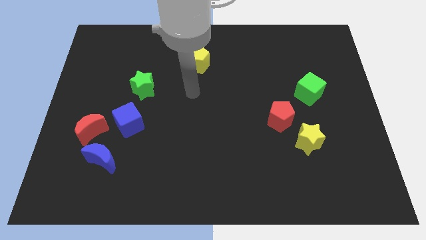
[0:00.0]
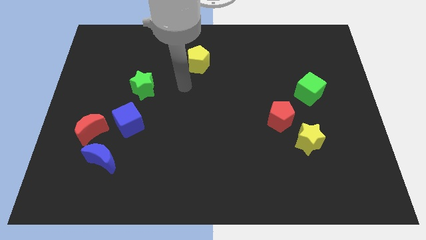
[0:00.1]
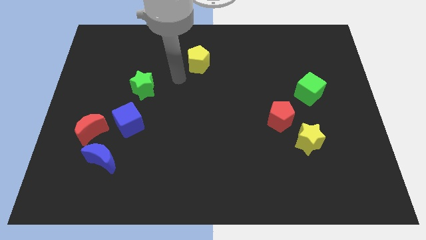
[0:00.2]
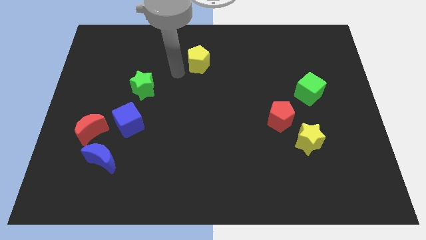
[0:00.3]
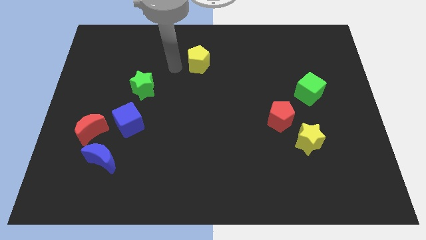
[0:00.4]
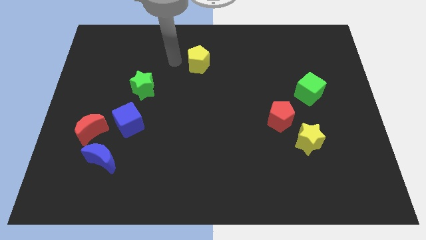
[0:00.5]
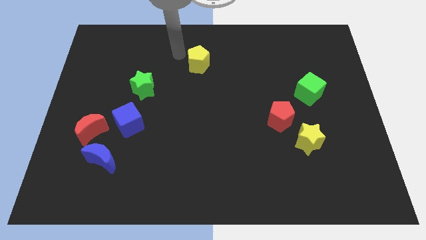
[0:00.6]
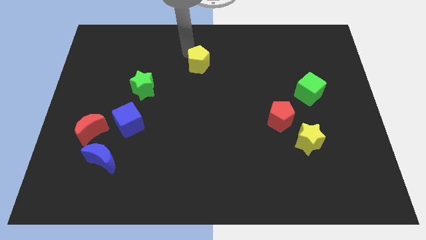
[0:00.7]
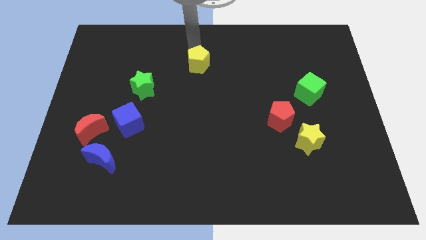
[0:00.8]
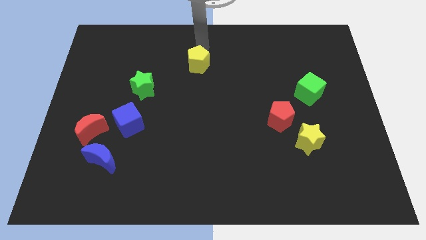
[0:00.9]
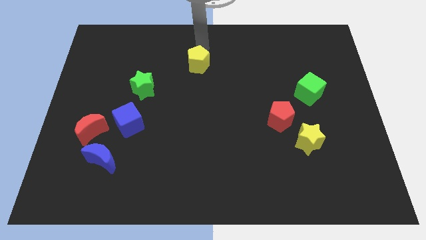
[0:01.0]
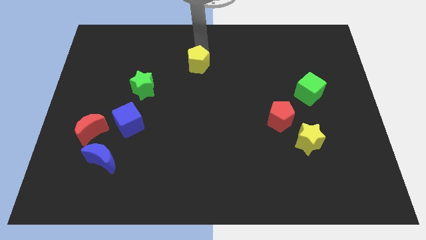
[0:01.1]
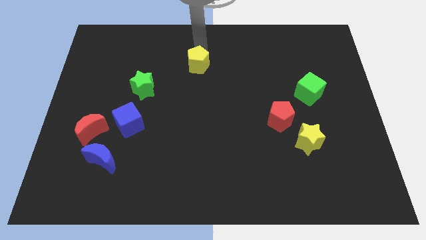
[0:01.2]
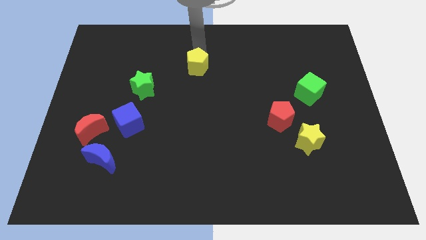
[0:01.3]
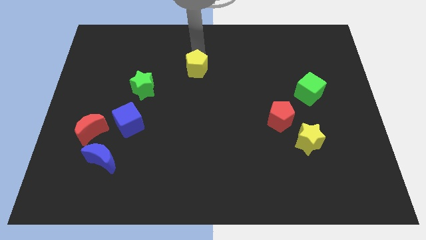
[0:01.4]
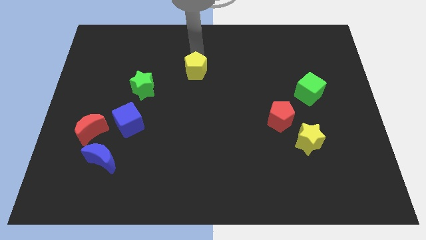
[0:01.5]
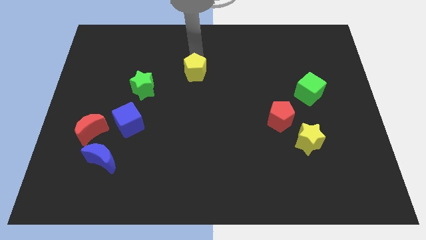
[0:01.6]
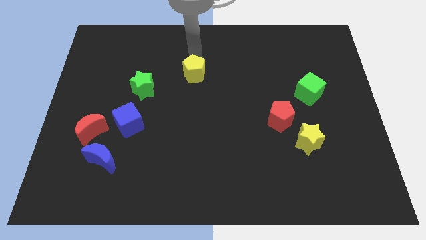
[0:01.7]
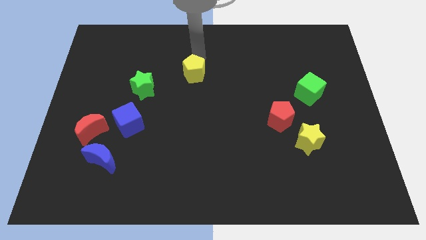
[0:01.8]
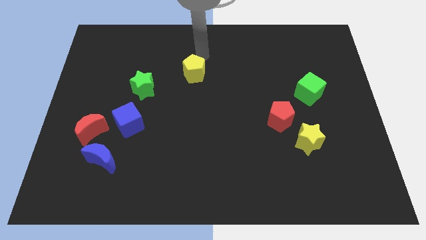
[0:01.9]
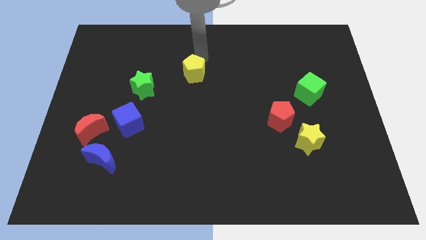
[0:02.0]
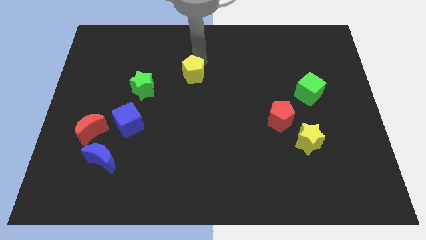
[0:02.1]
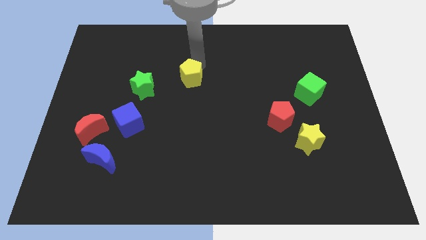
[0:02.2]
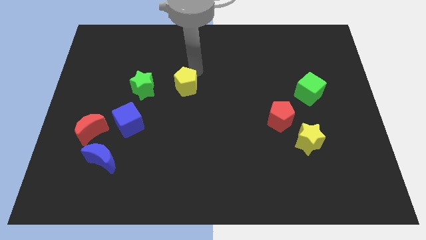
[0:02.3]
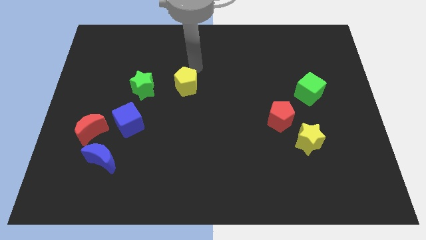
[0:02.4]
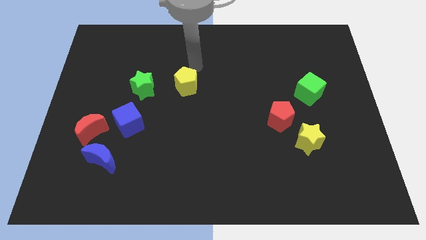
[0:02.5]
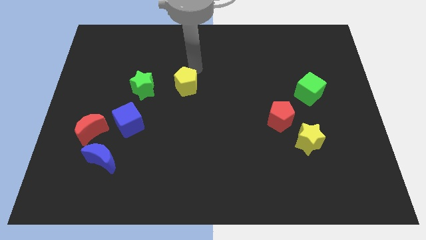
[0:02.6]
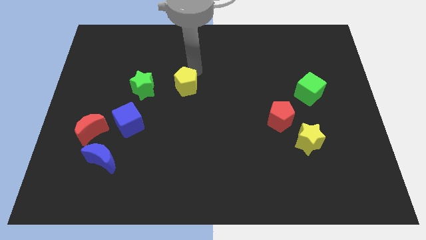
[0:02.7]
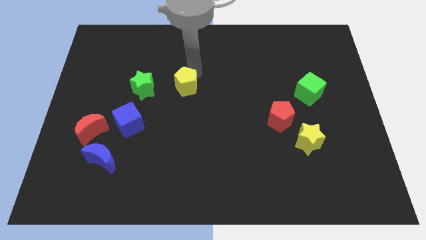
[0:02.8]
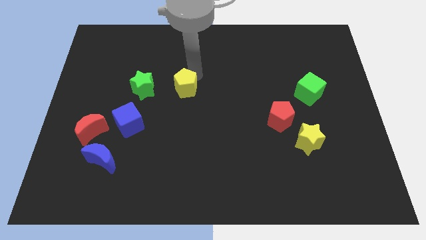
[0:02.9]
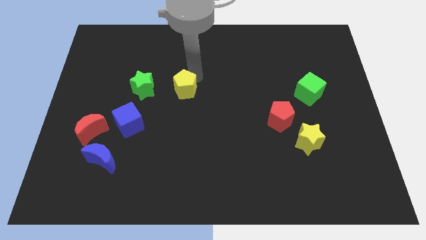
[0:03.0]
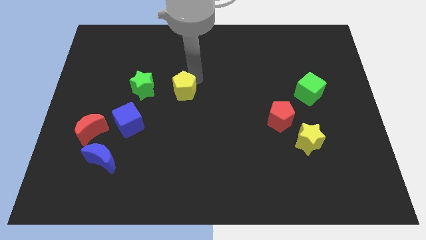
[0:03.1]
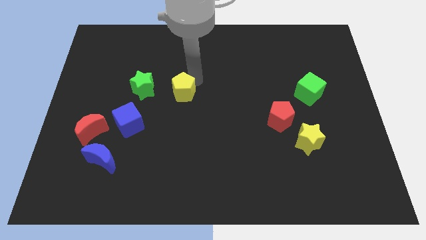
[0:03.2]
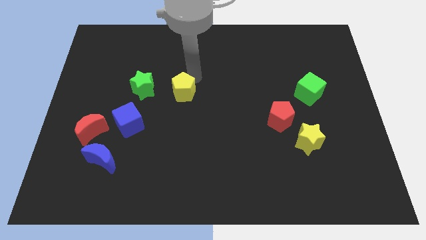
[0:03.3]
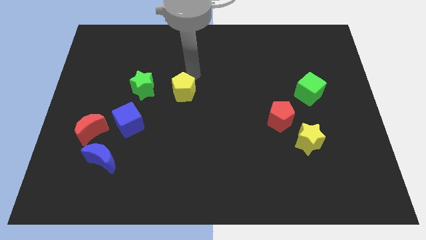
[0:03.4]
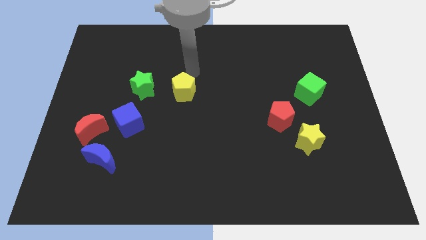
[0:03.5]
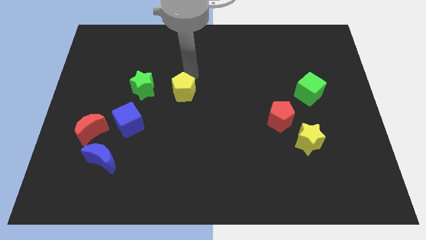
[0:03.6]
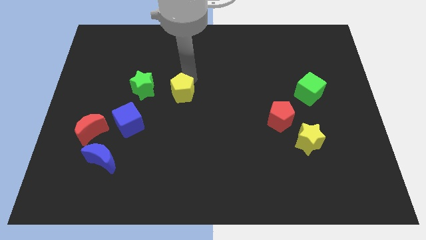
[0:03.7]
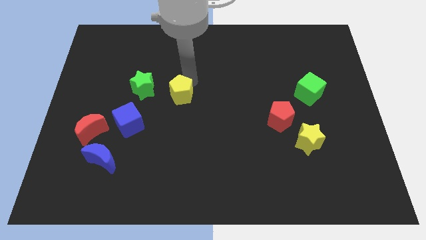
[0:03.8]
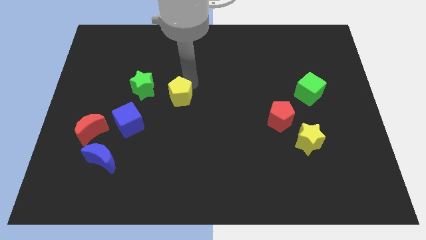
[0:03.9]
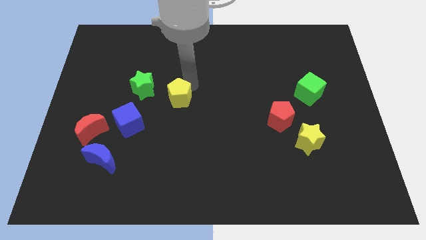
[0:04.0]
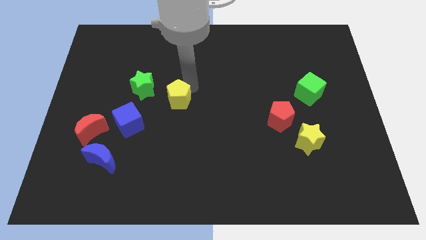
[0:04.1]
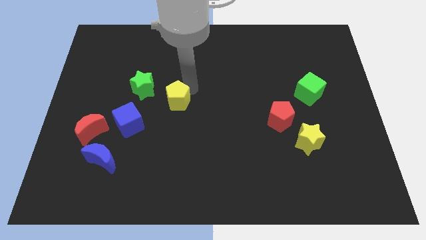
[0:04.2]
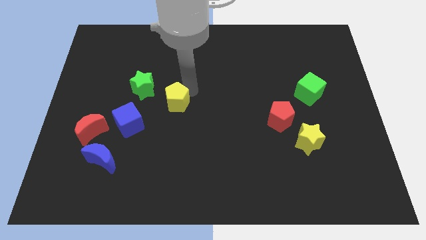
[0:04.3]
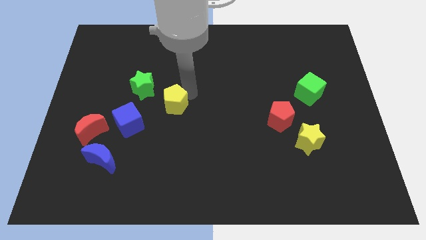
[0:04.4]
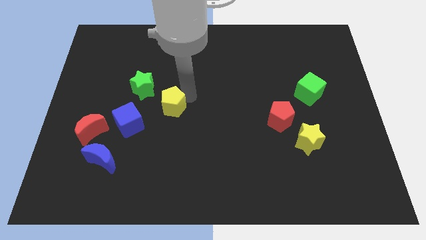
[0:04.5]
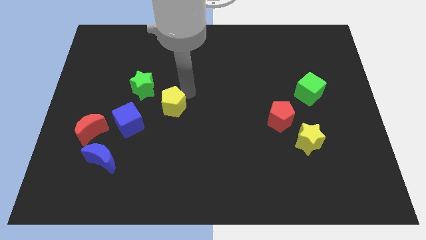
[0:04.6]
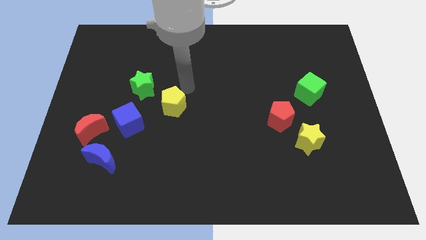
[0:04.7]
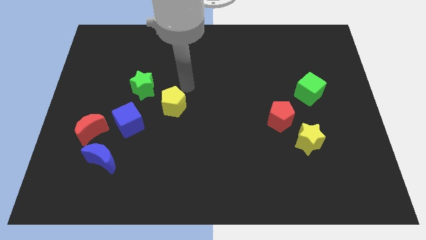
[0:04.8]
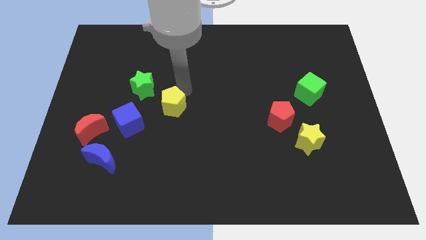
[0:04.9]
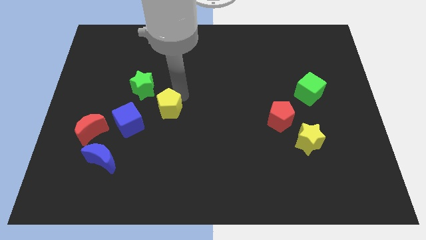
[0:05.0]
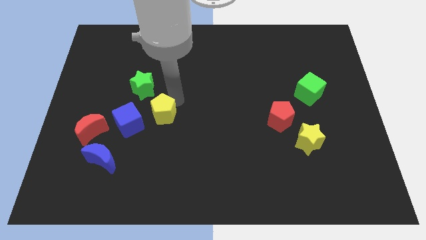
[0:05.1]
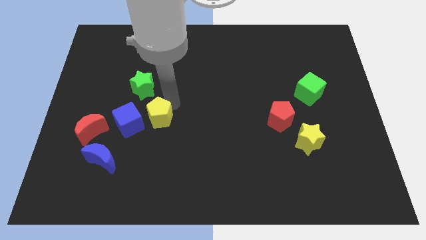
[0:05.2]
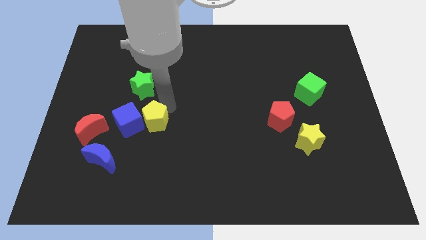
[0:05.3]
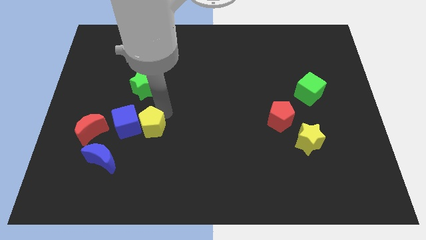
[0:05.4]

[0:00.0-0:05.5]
push the yellow pentagon to the top right of the blue moon

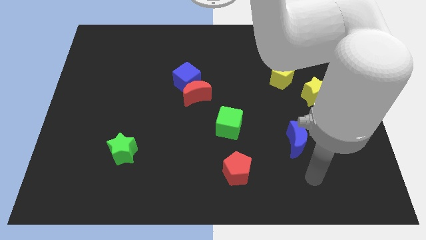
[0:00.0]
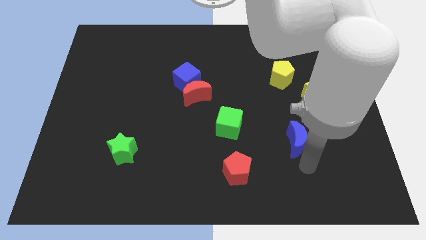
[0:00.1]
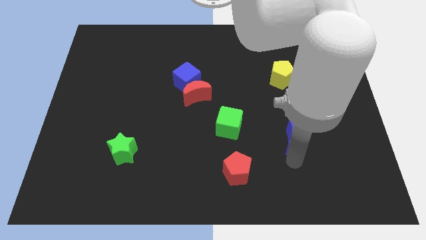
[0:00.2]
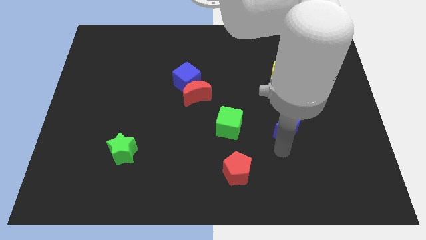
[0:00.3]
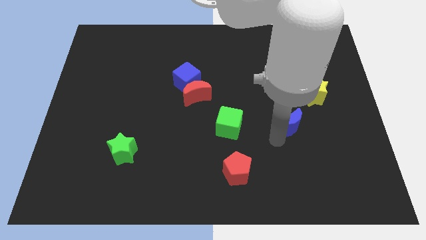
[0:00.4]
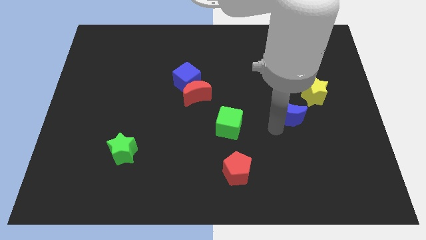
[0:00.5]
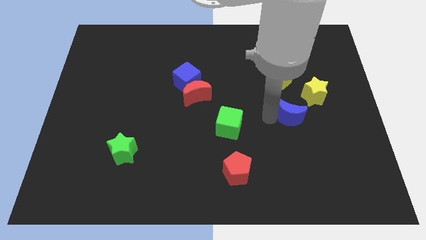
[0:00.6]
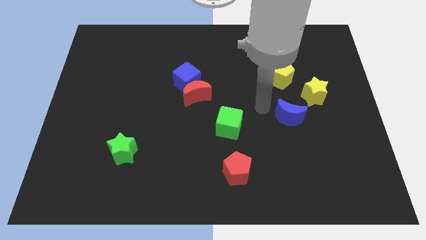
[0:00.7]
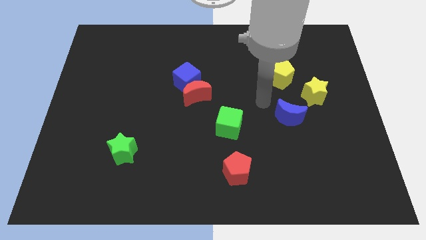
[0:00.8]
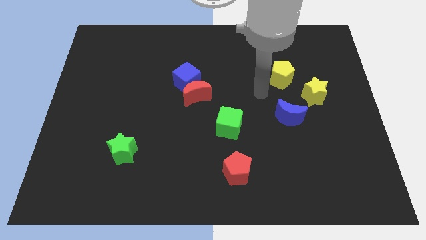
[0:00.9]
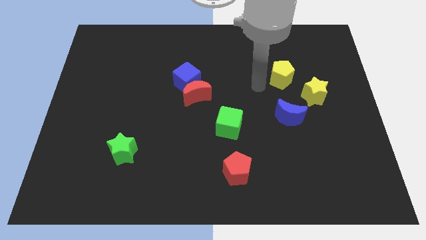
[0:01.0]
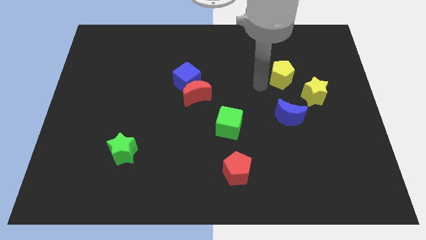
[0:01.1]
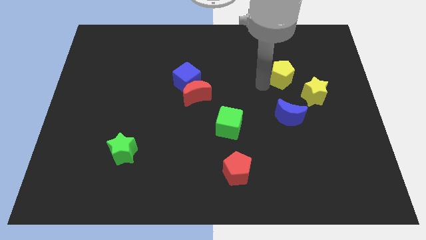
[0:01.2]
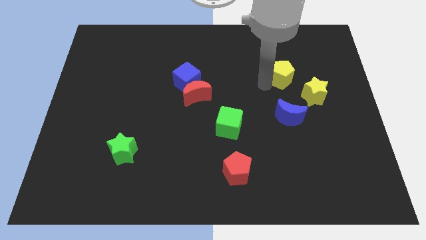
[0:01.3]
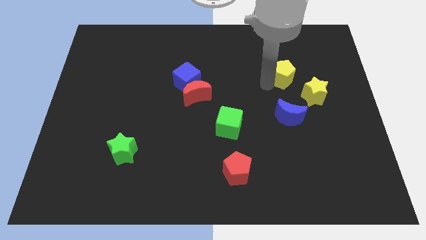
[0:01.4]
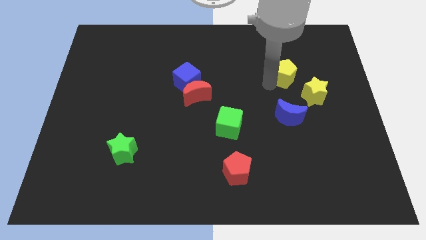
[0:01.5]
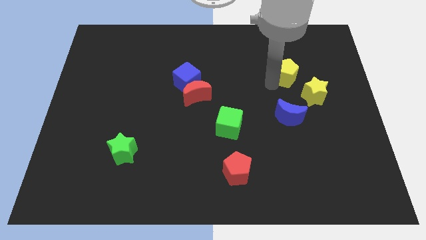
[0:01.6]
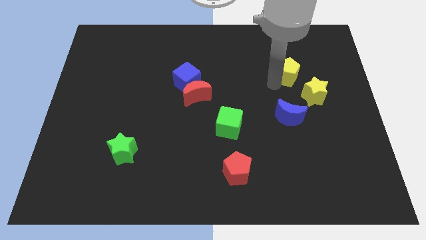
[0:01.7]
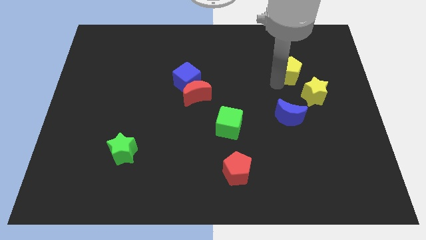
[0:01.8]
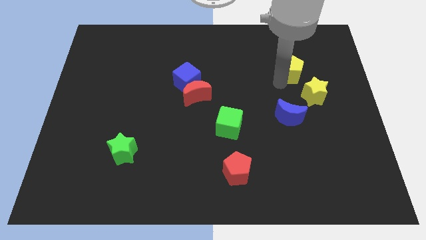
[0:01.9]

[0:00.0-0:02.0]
put the yellow pentagon above the yellow star
